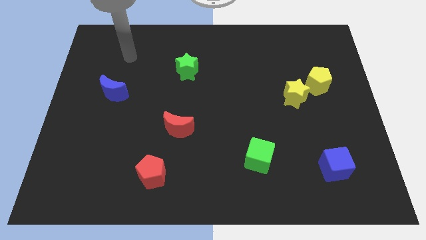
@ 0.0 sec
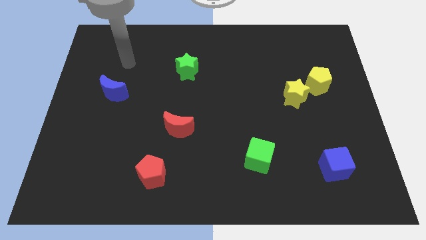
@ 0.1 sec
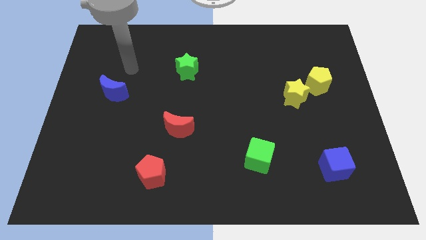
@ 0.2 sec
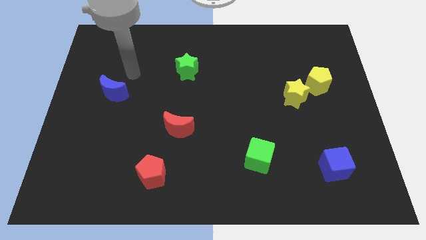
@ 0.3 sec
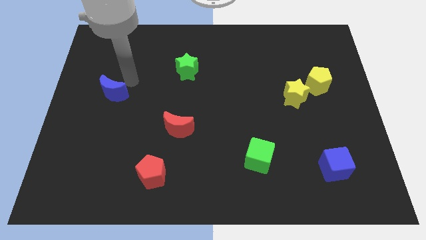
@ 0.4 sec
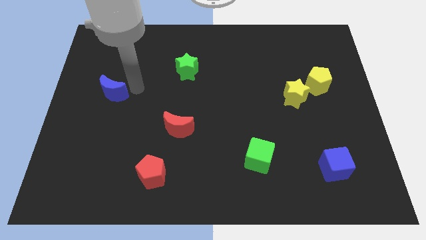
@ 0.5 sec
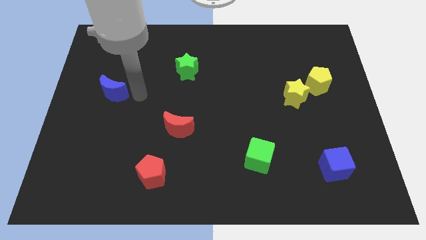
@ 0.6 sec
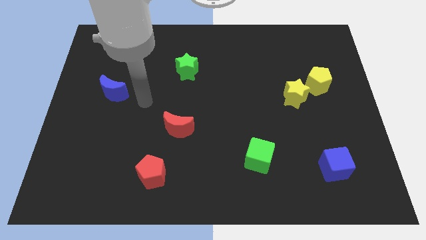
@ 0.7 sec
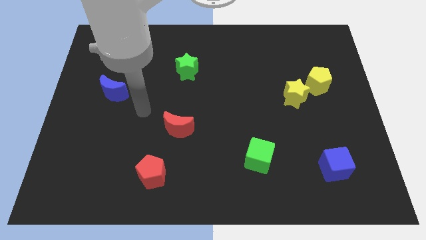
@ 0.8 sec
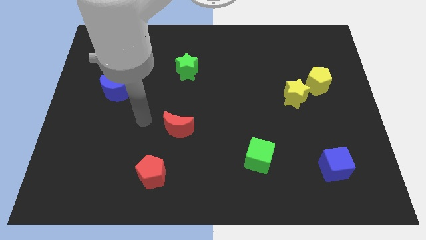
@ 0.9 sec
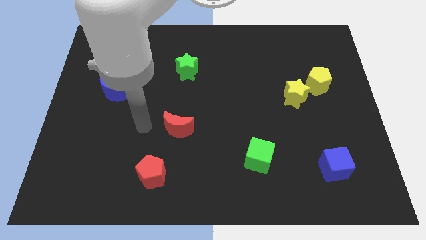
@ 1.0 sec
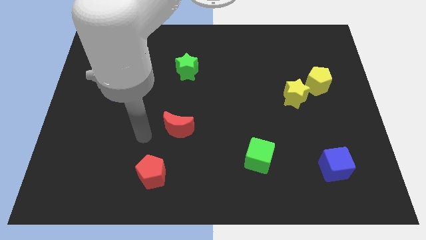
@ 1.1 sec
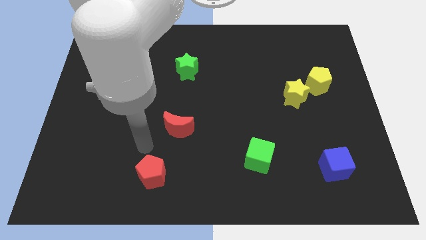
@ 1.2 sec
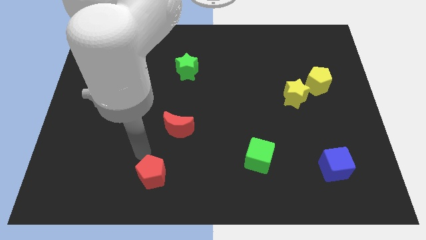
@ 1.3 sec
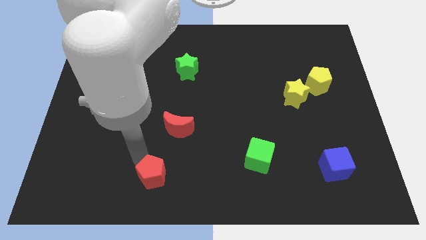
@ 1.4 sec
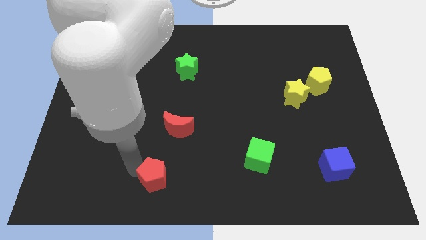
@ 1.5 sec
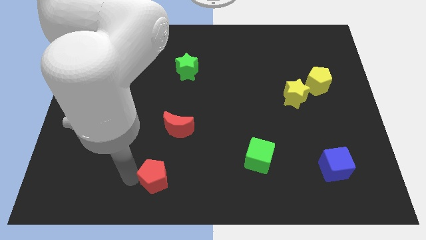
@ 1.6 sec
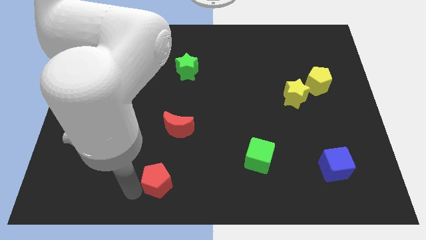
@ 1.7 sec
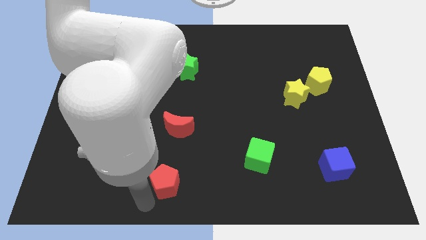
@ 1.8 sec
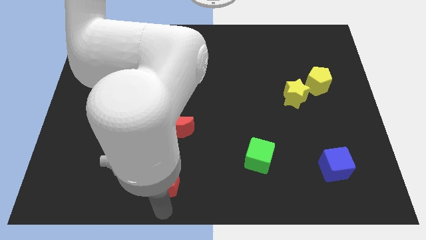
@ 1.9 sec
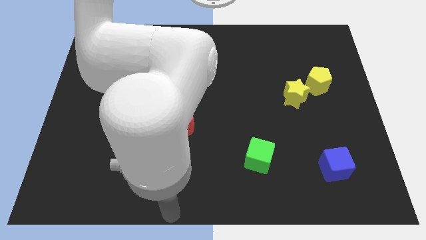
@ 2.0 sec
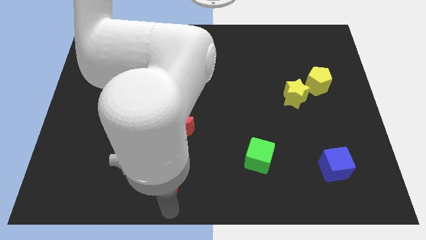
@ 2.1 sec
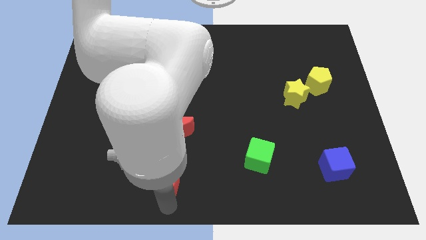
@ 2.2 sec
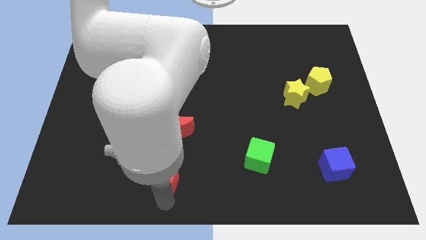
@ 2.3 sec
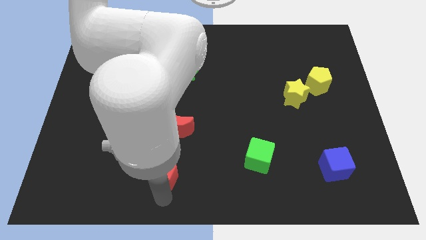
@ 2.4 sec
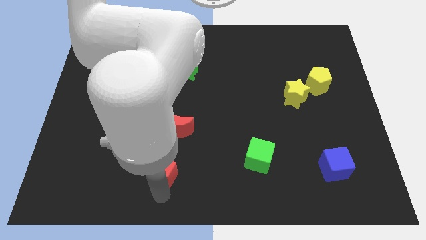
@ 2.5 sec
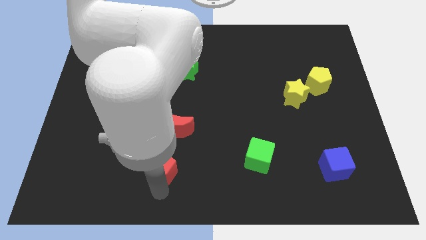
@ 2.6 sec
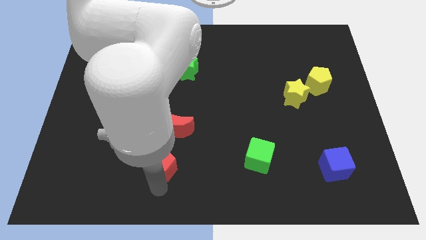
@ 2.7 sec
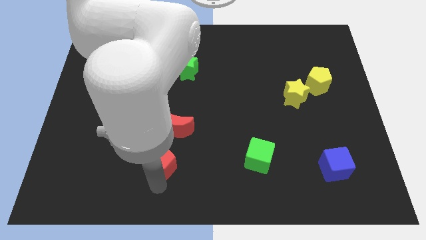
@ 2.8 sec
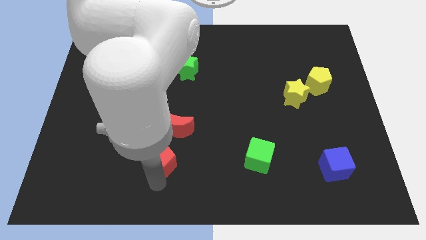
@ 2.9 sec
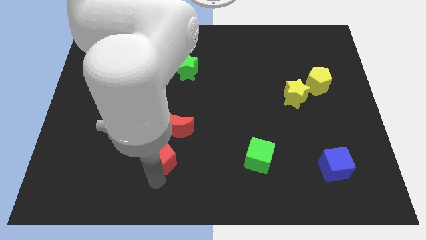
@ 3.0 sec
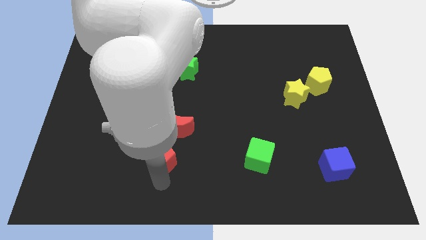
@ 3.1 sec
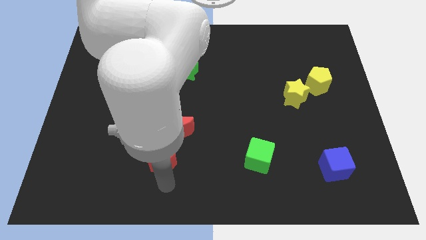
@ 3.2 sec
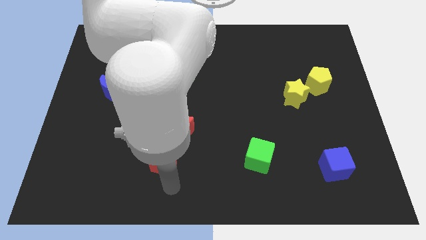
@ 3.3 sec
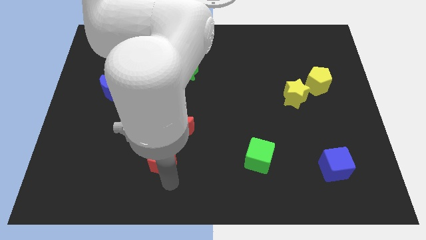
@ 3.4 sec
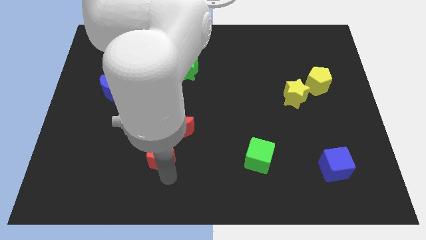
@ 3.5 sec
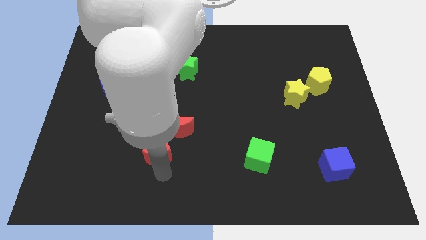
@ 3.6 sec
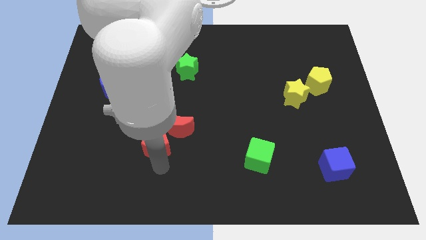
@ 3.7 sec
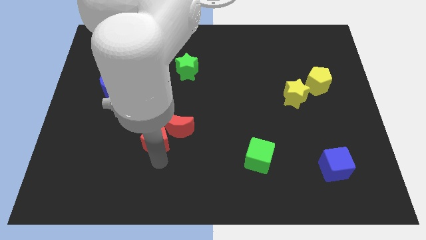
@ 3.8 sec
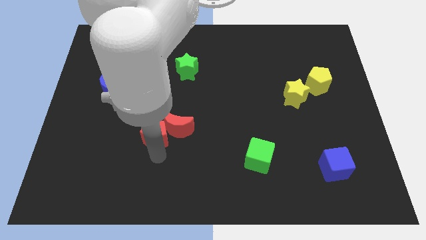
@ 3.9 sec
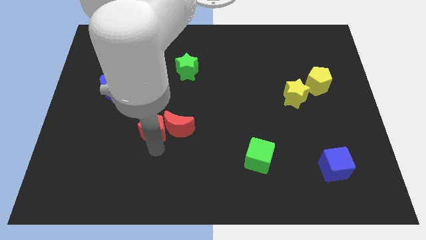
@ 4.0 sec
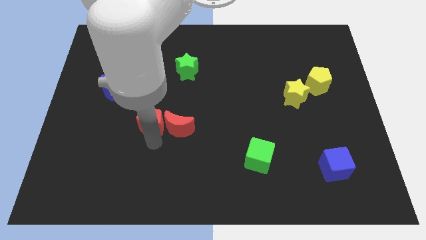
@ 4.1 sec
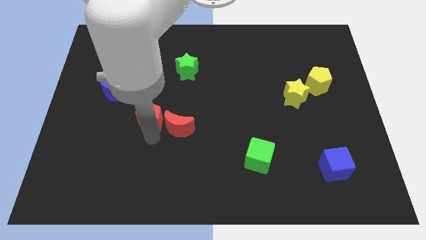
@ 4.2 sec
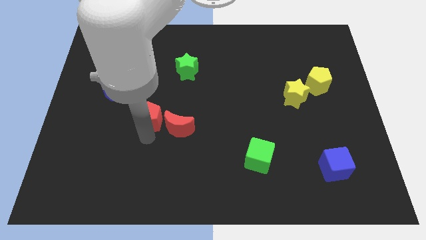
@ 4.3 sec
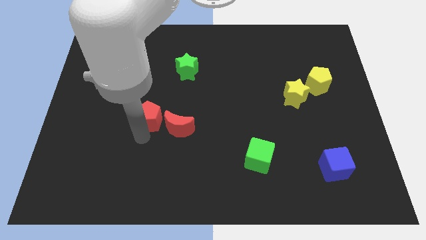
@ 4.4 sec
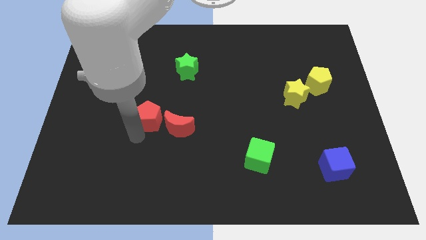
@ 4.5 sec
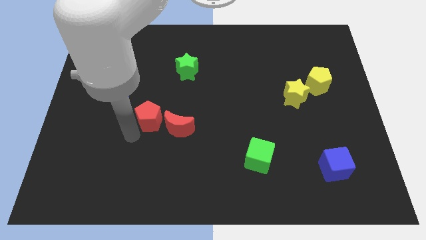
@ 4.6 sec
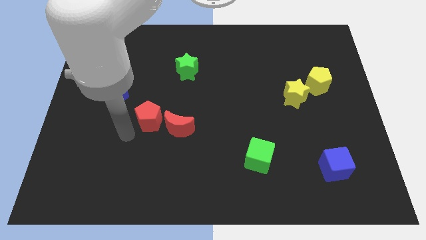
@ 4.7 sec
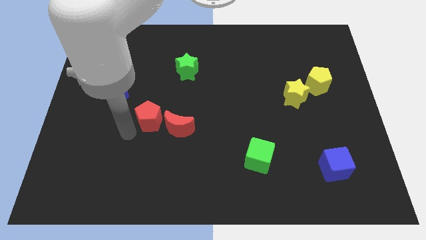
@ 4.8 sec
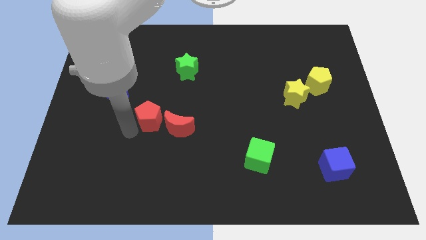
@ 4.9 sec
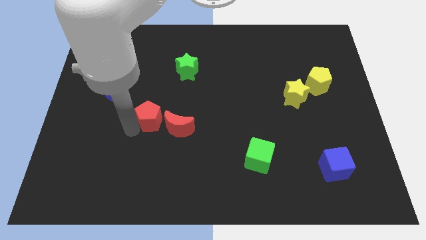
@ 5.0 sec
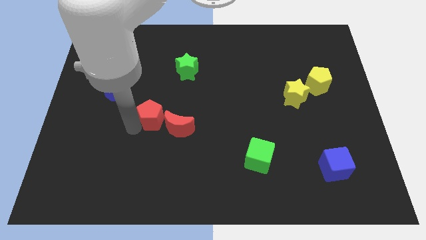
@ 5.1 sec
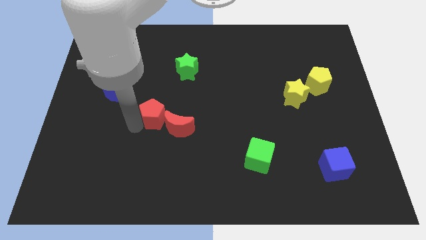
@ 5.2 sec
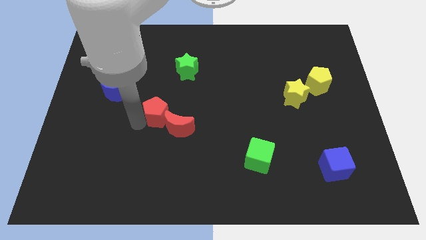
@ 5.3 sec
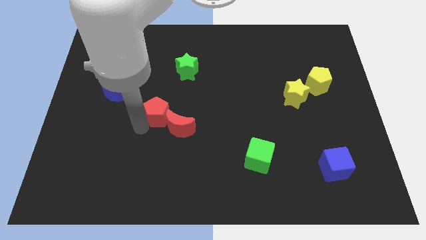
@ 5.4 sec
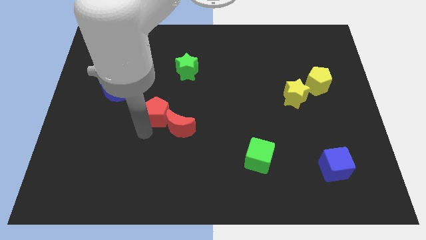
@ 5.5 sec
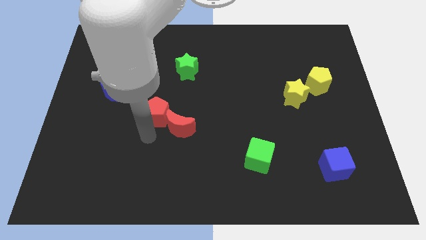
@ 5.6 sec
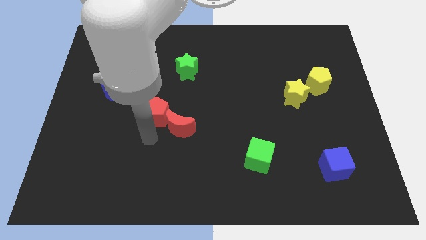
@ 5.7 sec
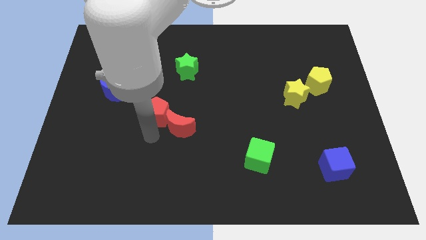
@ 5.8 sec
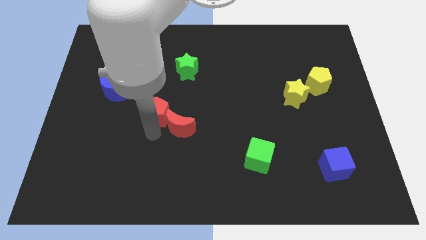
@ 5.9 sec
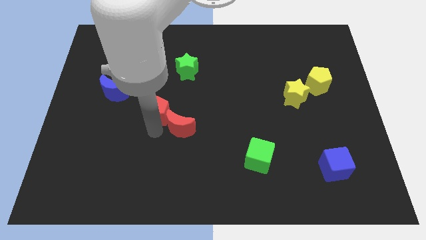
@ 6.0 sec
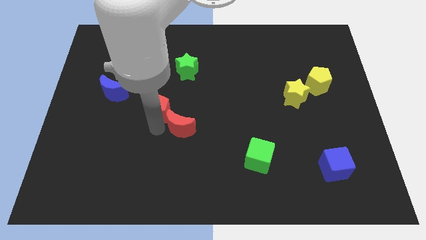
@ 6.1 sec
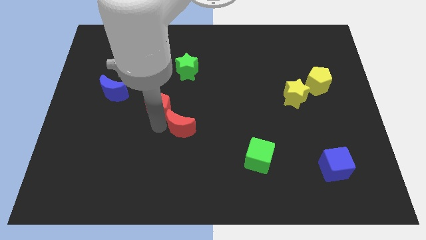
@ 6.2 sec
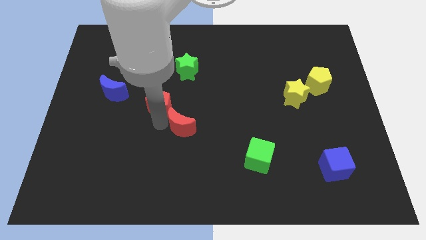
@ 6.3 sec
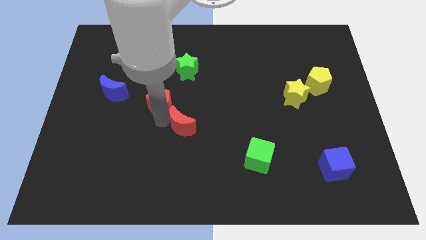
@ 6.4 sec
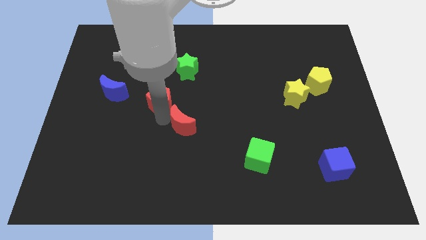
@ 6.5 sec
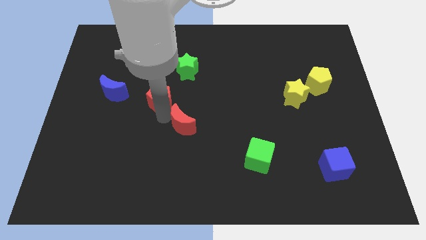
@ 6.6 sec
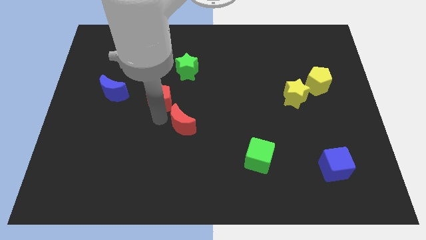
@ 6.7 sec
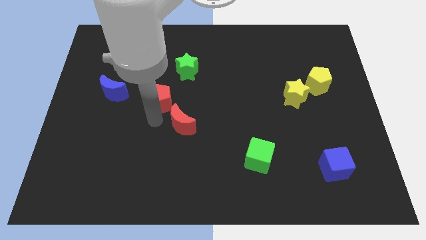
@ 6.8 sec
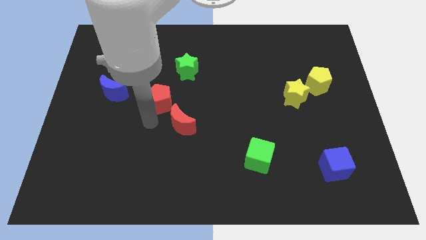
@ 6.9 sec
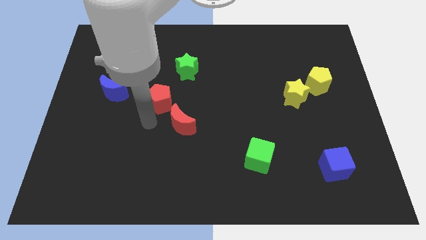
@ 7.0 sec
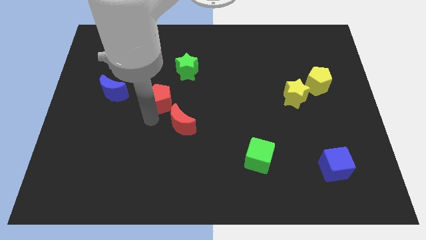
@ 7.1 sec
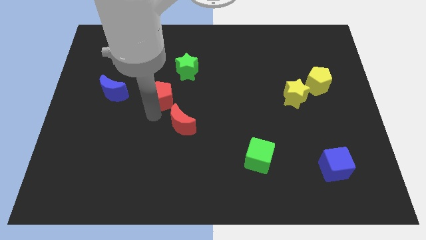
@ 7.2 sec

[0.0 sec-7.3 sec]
slide the red pentagon up

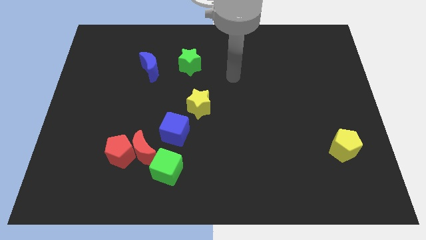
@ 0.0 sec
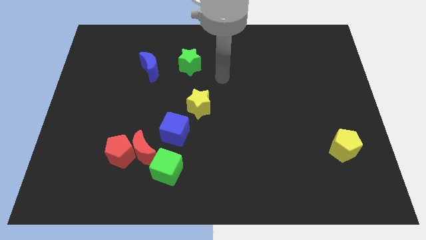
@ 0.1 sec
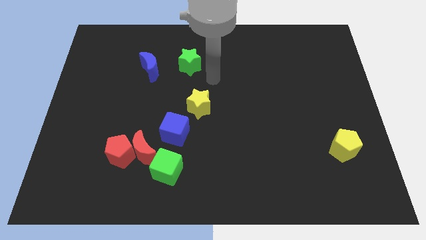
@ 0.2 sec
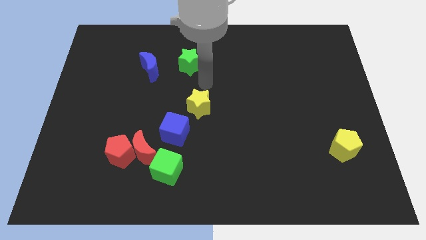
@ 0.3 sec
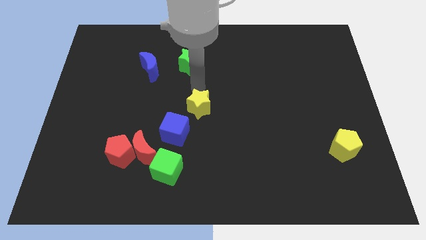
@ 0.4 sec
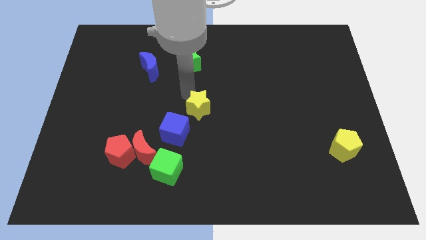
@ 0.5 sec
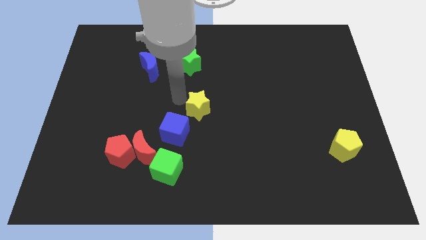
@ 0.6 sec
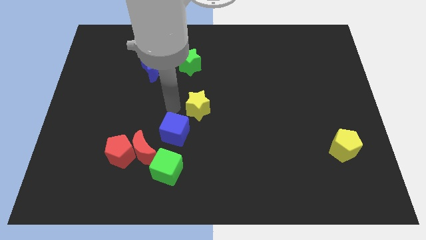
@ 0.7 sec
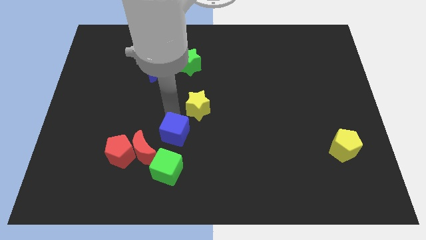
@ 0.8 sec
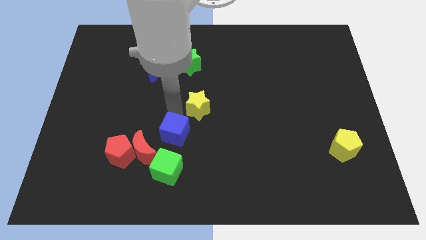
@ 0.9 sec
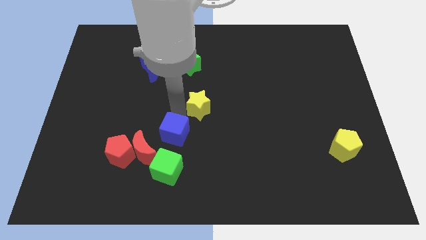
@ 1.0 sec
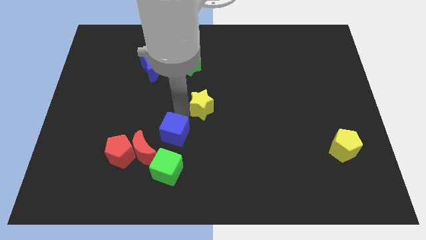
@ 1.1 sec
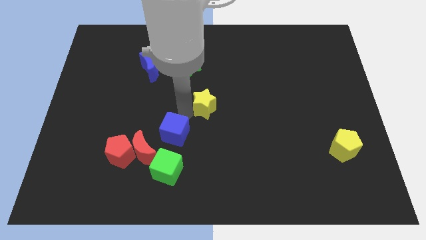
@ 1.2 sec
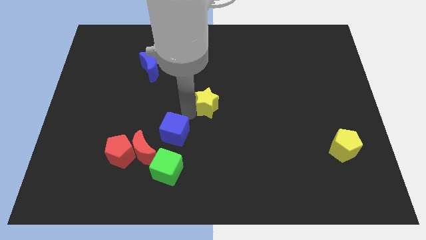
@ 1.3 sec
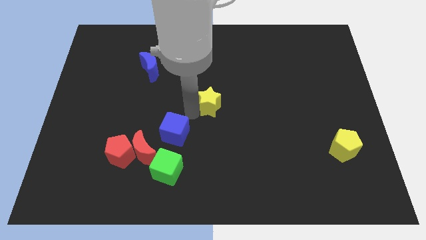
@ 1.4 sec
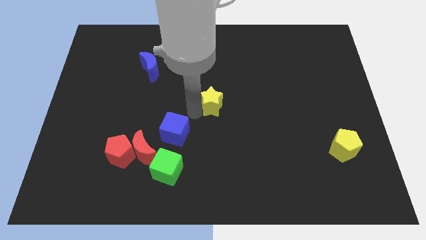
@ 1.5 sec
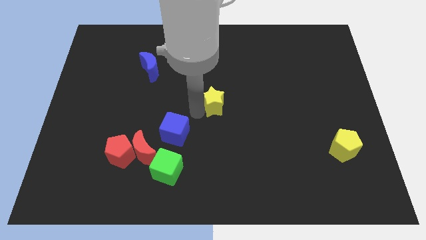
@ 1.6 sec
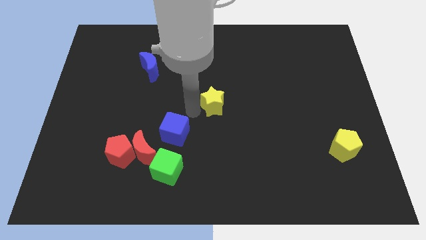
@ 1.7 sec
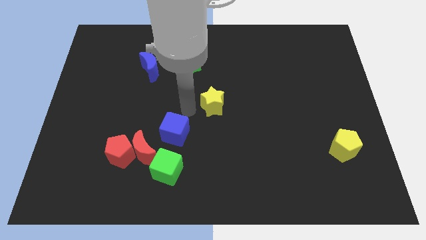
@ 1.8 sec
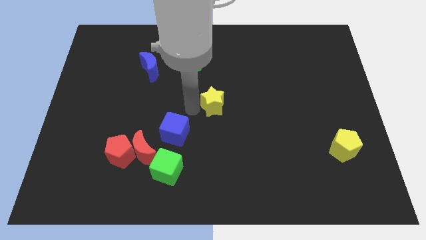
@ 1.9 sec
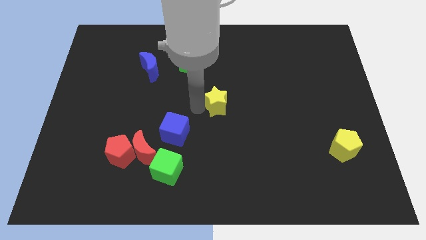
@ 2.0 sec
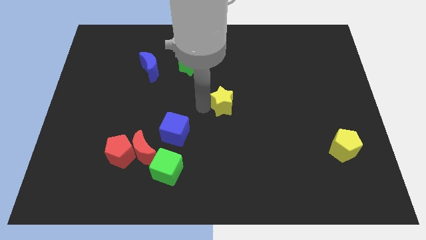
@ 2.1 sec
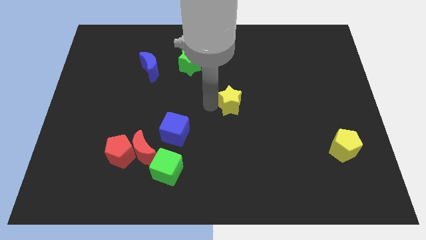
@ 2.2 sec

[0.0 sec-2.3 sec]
push the yellow star slightly to the right
